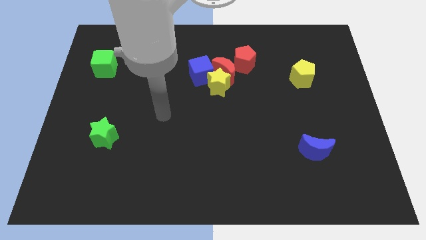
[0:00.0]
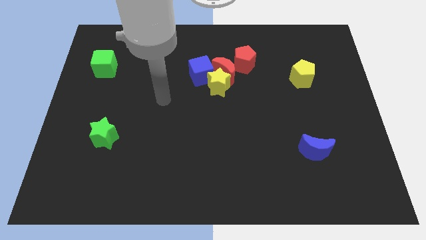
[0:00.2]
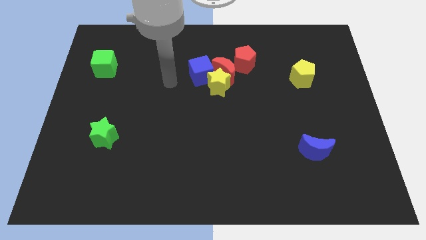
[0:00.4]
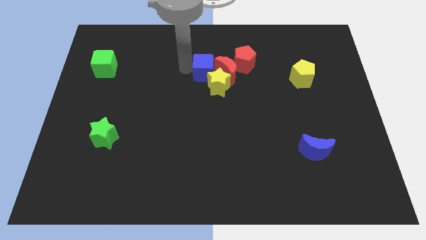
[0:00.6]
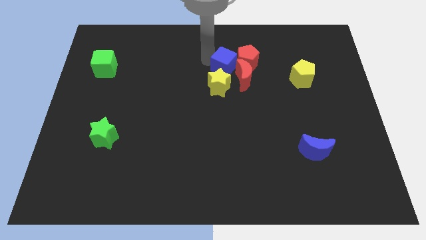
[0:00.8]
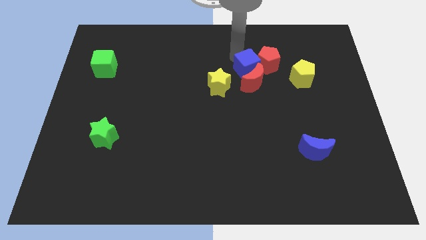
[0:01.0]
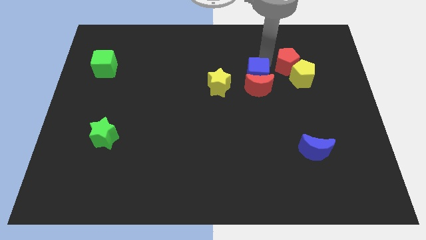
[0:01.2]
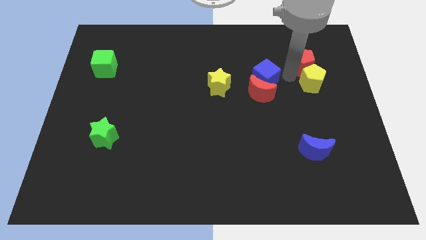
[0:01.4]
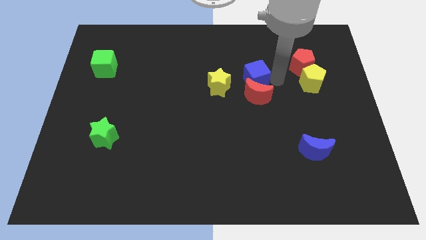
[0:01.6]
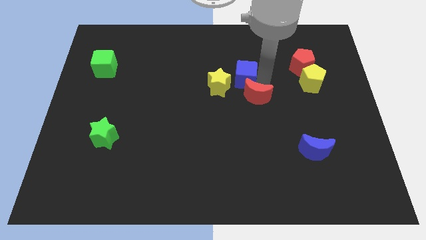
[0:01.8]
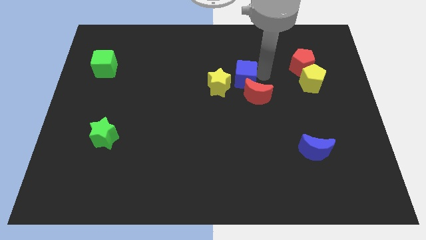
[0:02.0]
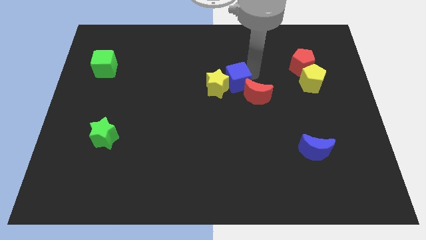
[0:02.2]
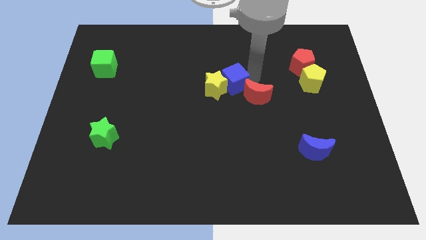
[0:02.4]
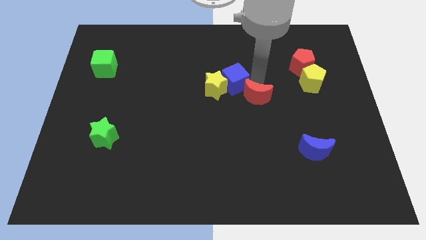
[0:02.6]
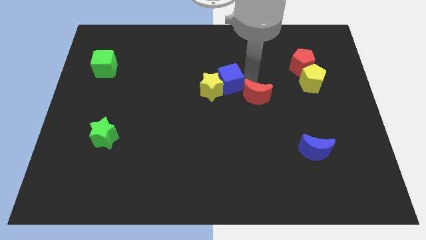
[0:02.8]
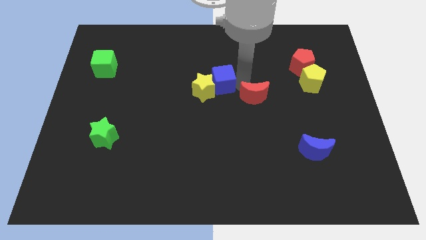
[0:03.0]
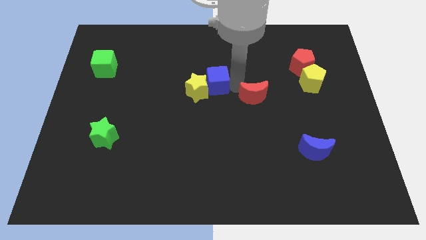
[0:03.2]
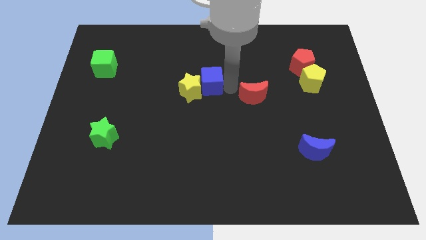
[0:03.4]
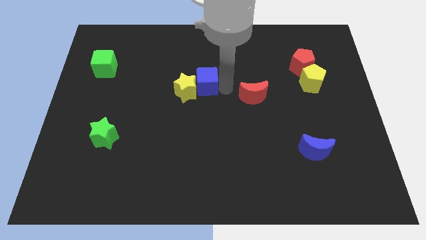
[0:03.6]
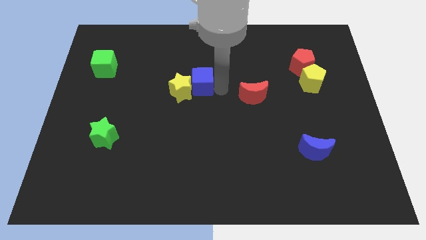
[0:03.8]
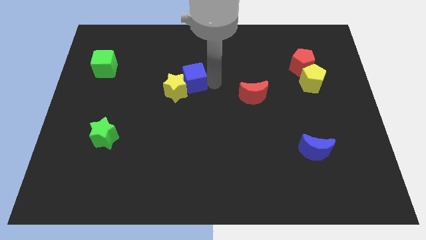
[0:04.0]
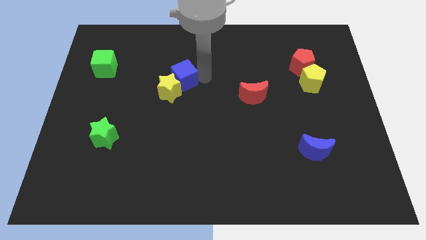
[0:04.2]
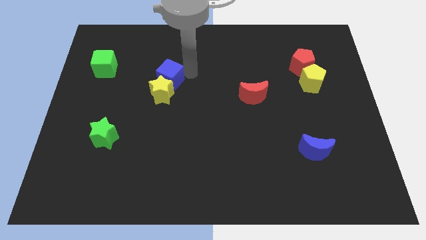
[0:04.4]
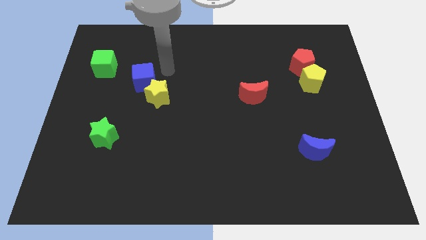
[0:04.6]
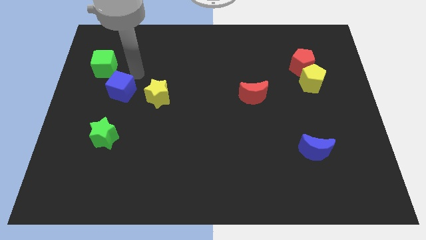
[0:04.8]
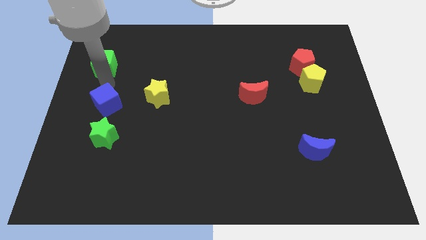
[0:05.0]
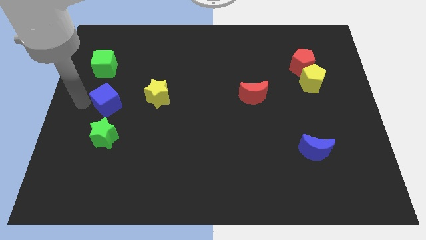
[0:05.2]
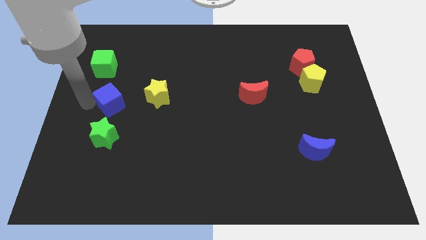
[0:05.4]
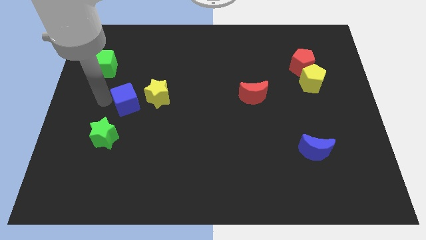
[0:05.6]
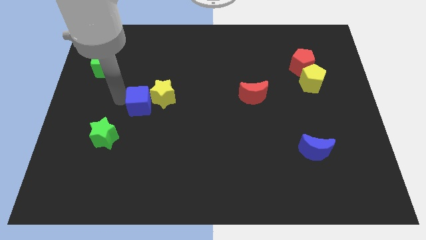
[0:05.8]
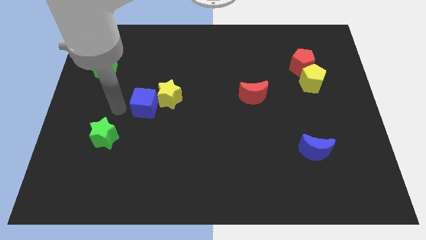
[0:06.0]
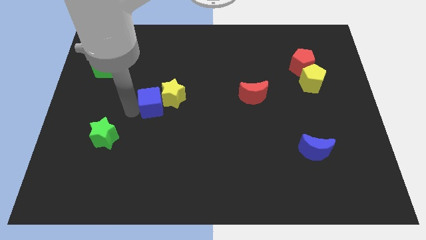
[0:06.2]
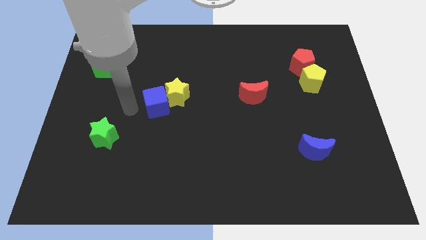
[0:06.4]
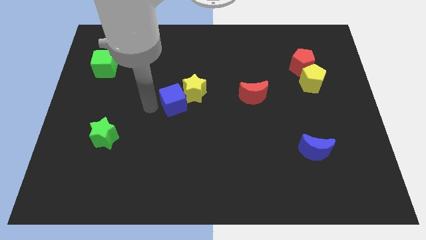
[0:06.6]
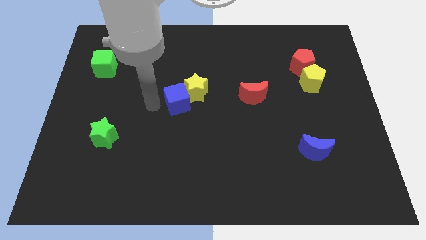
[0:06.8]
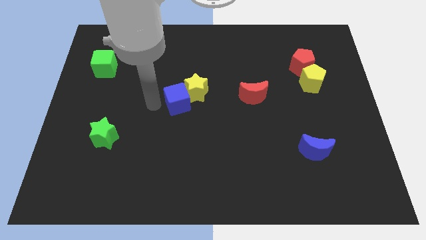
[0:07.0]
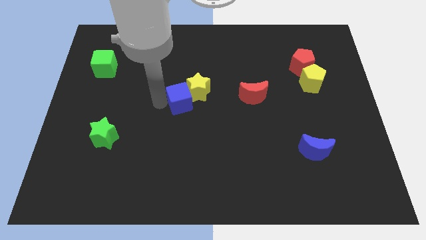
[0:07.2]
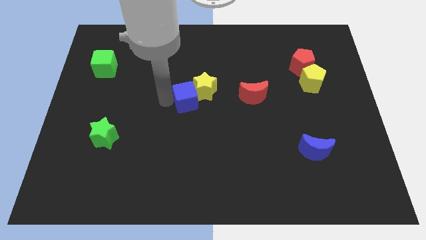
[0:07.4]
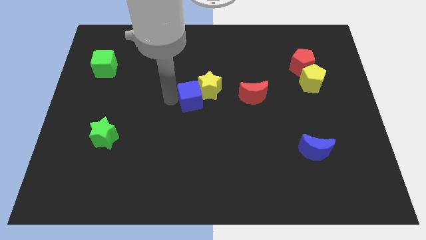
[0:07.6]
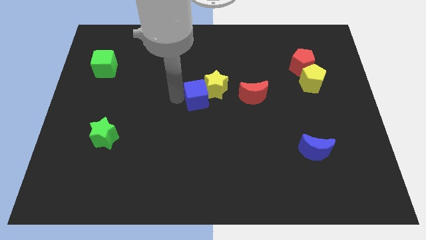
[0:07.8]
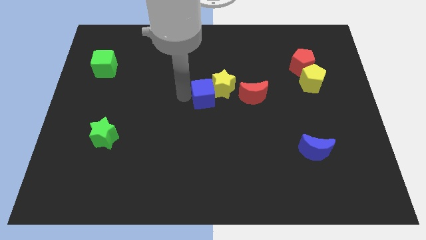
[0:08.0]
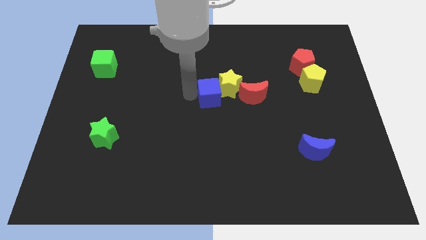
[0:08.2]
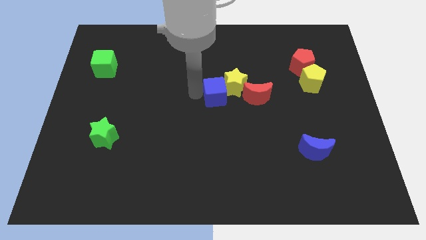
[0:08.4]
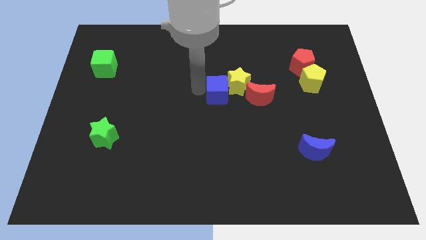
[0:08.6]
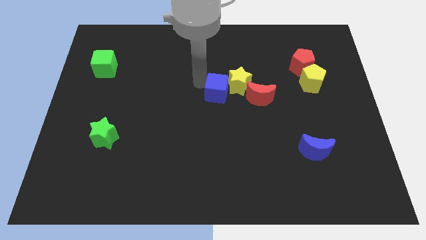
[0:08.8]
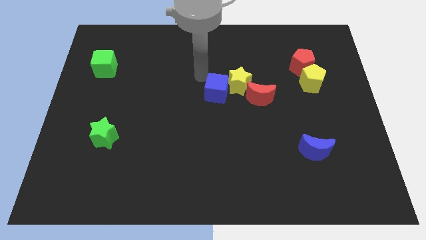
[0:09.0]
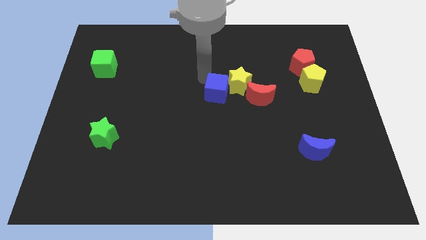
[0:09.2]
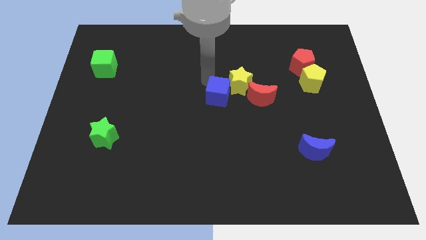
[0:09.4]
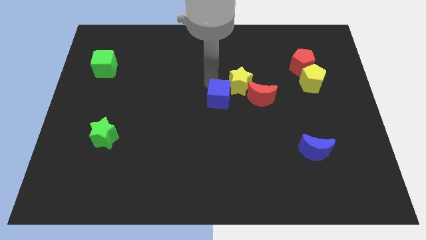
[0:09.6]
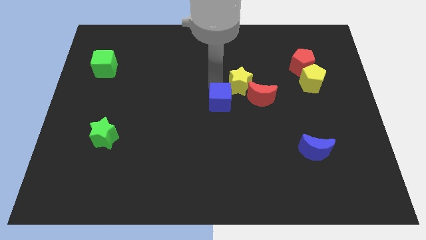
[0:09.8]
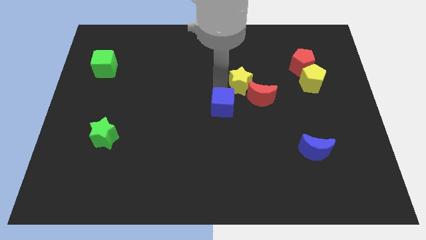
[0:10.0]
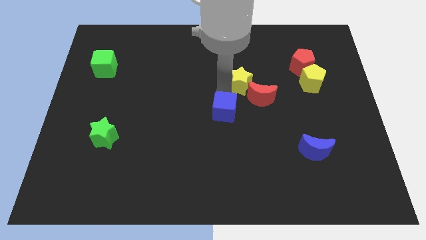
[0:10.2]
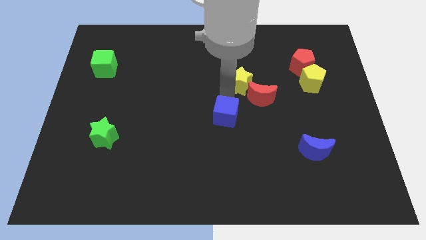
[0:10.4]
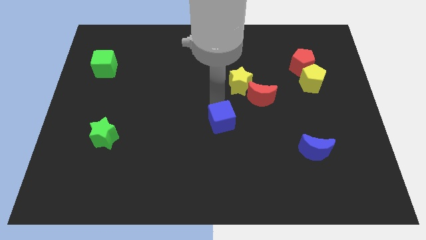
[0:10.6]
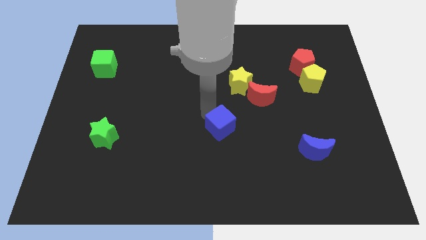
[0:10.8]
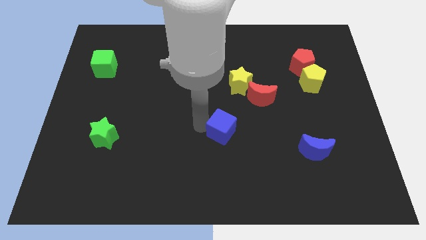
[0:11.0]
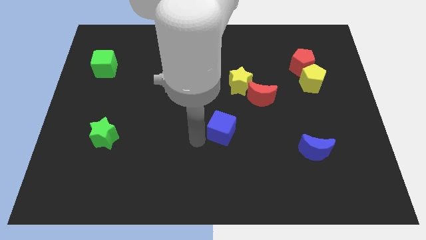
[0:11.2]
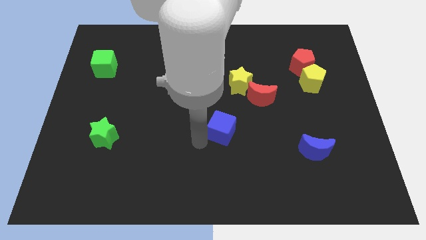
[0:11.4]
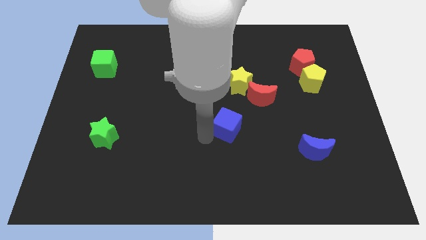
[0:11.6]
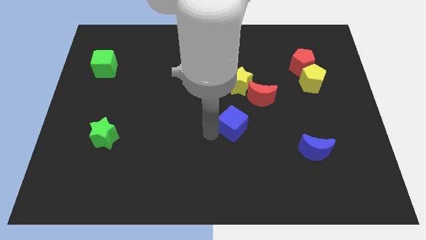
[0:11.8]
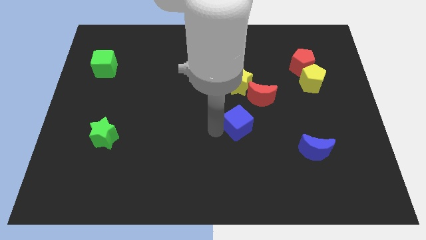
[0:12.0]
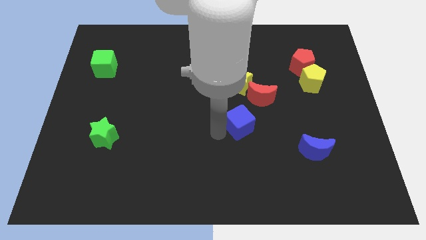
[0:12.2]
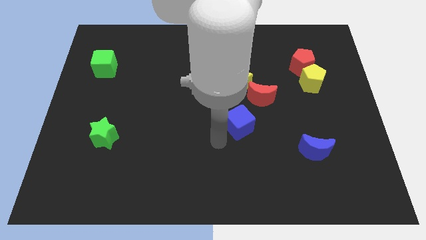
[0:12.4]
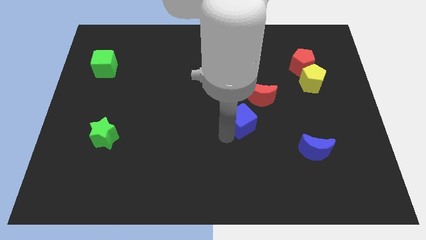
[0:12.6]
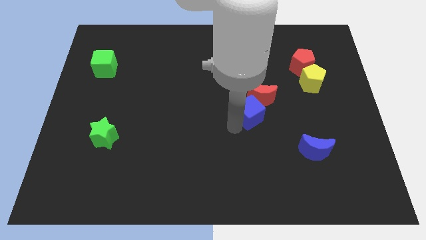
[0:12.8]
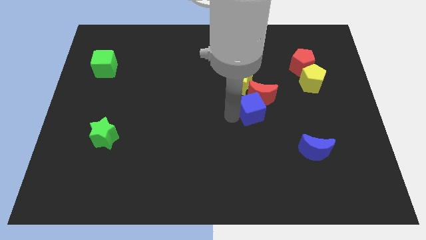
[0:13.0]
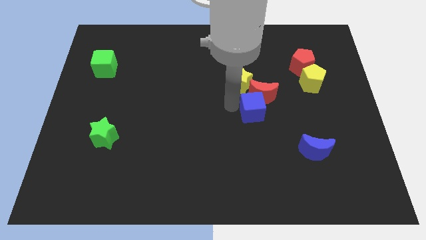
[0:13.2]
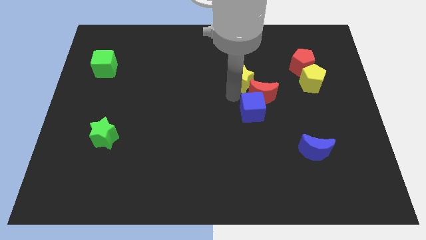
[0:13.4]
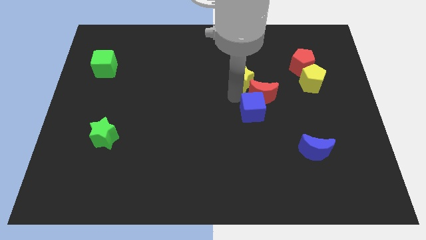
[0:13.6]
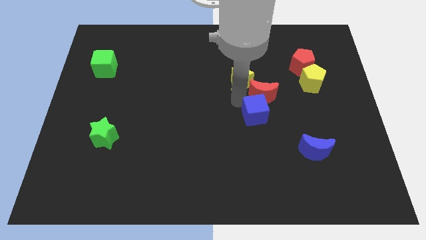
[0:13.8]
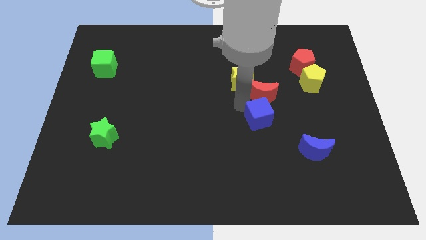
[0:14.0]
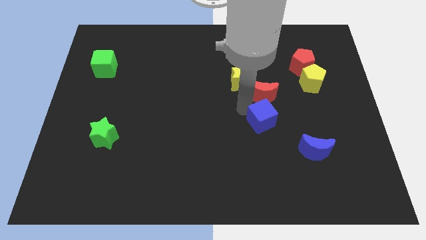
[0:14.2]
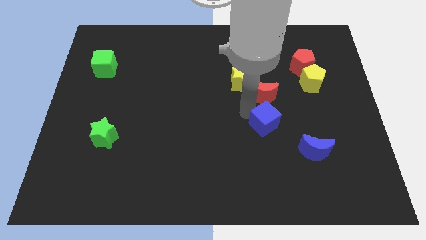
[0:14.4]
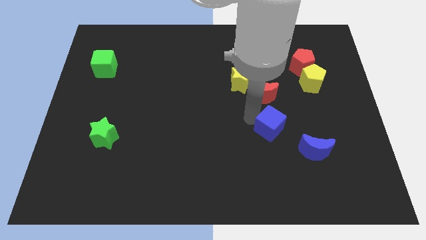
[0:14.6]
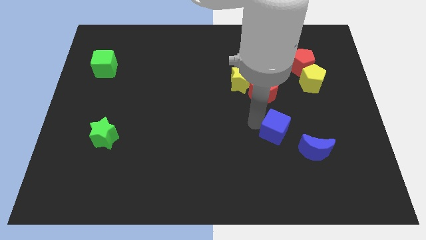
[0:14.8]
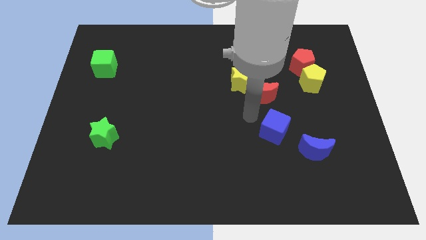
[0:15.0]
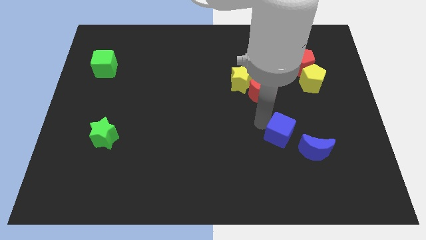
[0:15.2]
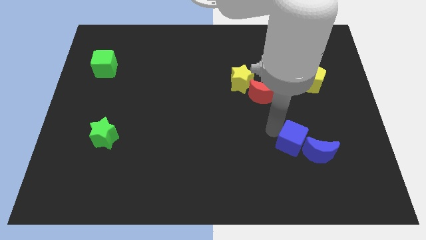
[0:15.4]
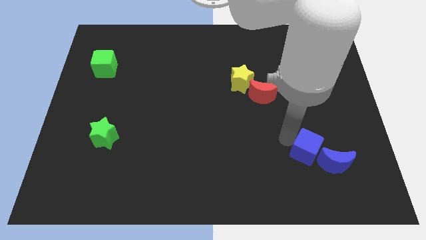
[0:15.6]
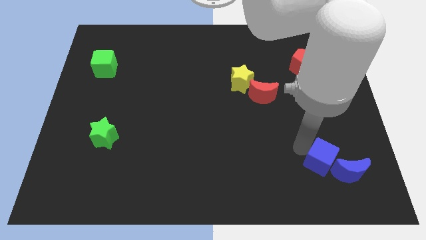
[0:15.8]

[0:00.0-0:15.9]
put the blue cube next to the blue moon
